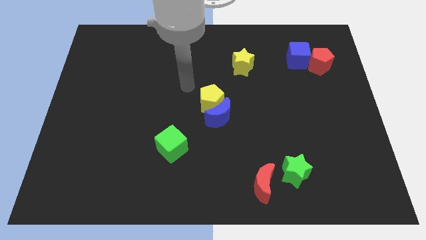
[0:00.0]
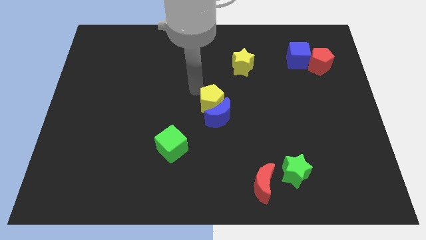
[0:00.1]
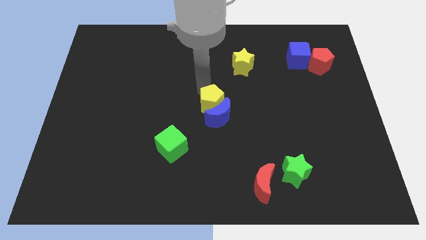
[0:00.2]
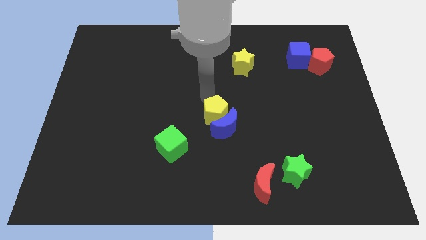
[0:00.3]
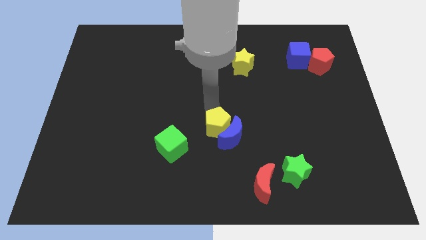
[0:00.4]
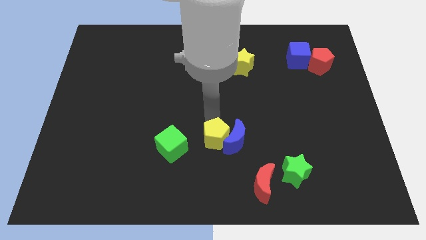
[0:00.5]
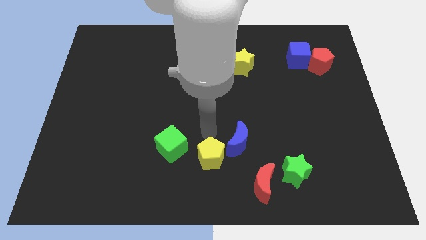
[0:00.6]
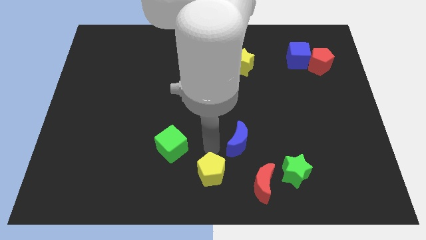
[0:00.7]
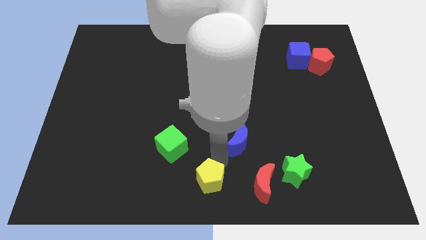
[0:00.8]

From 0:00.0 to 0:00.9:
separate the blue moon from the yellow pentagon

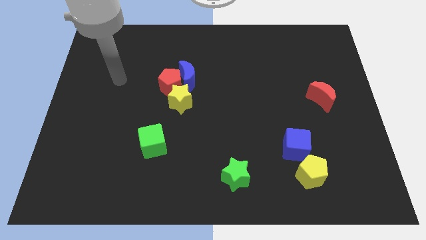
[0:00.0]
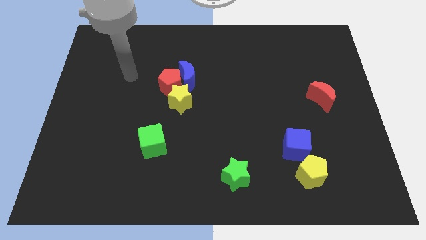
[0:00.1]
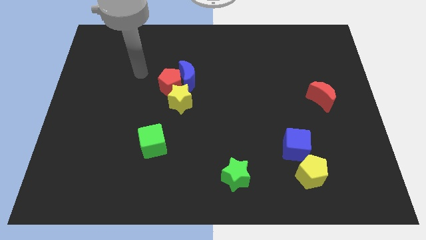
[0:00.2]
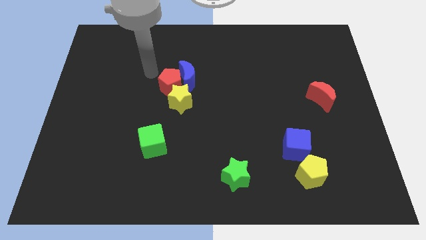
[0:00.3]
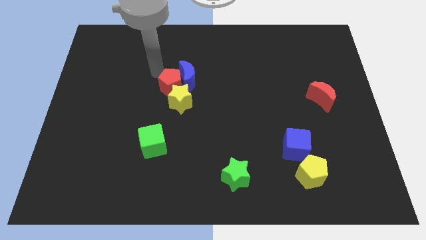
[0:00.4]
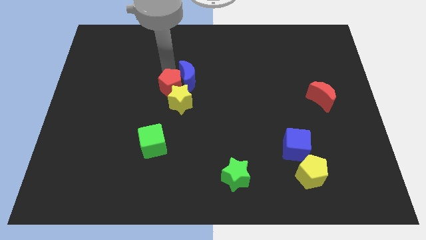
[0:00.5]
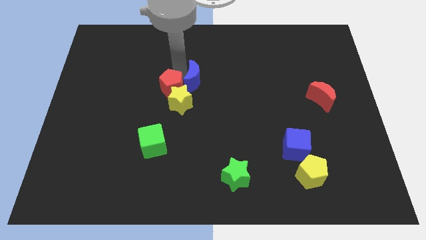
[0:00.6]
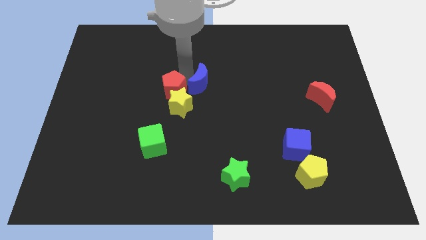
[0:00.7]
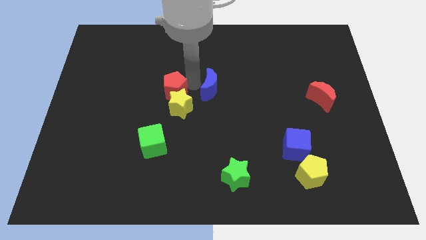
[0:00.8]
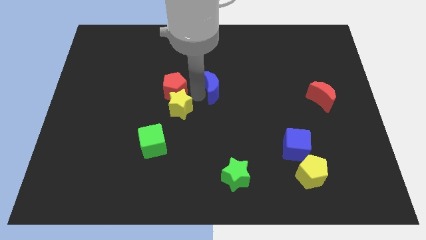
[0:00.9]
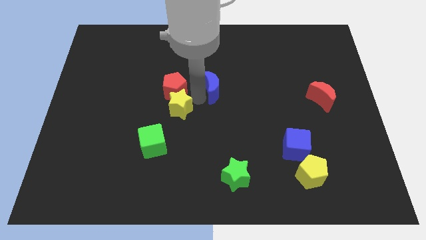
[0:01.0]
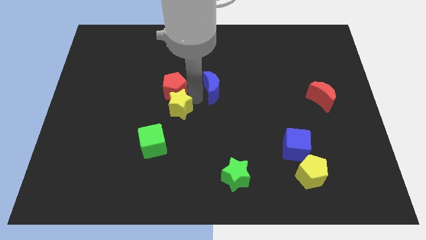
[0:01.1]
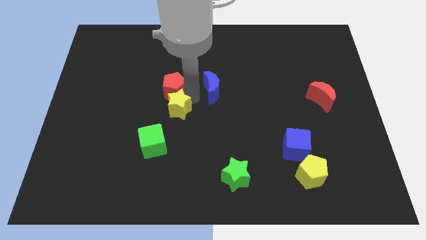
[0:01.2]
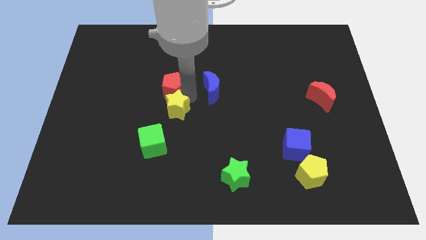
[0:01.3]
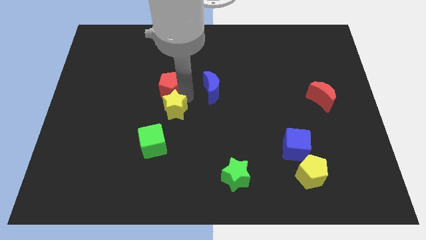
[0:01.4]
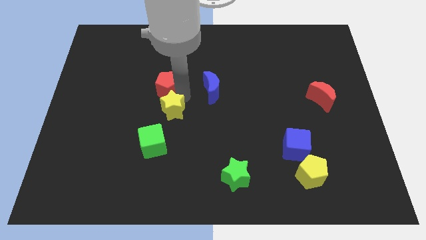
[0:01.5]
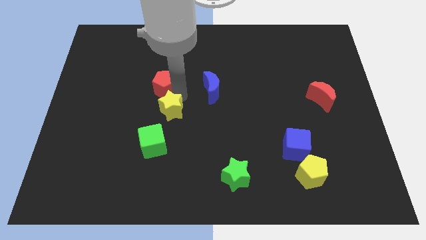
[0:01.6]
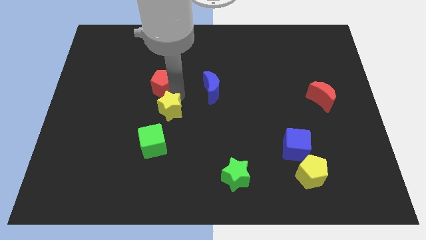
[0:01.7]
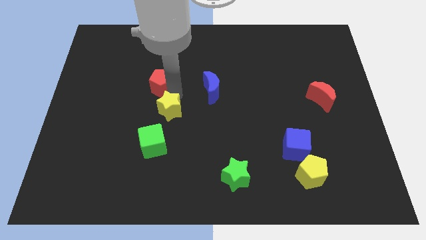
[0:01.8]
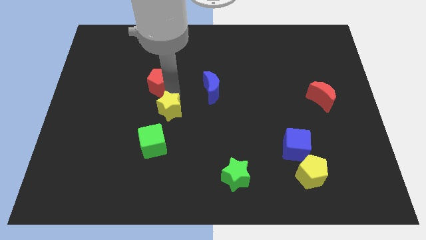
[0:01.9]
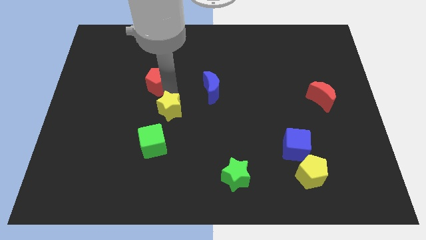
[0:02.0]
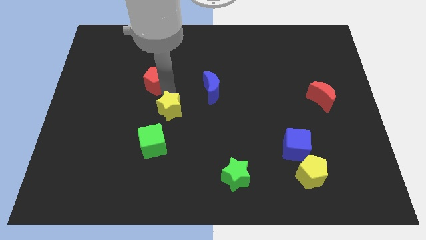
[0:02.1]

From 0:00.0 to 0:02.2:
move the red pentagon away from the blue moon and yellow star

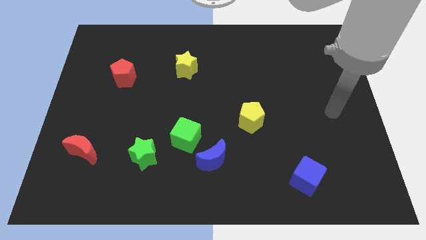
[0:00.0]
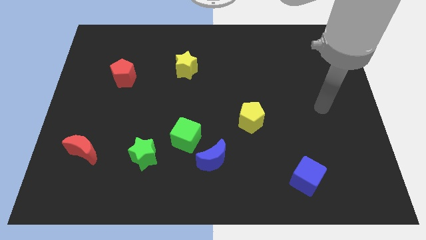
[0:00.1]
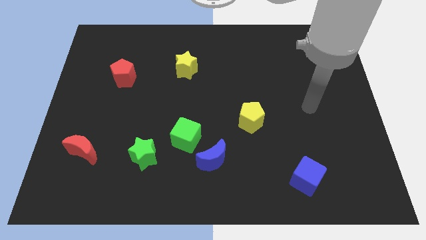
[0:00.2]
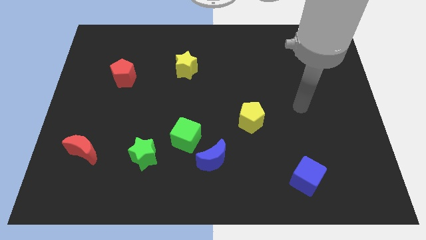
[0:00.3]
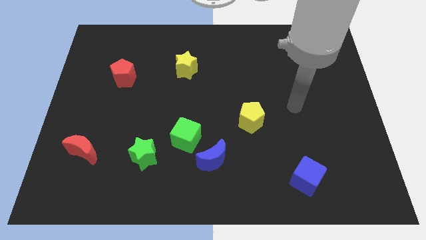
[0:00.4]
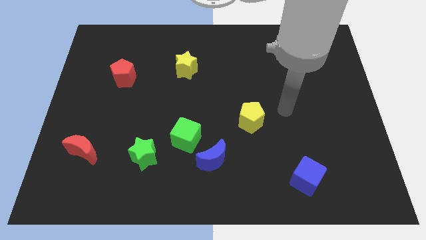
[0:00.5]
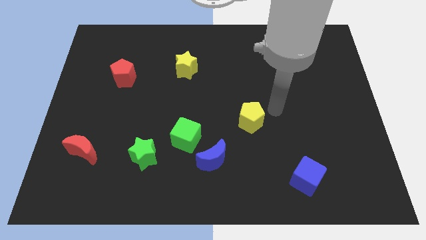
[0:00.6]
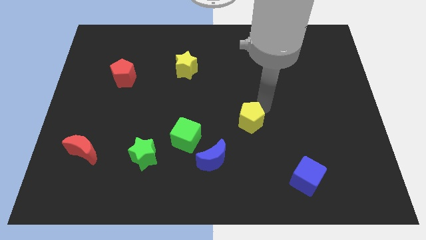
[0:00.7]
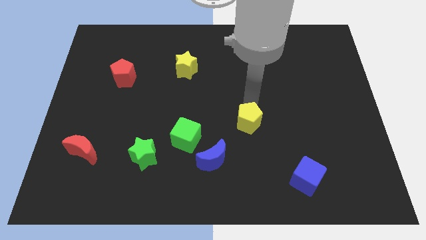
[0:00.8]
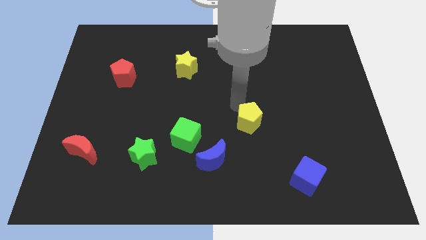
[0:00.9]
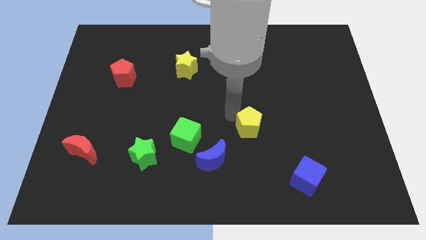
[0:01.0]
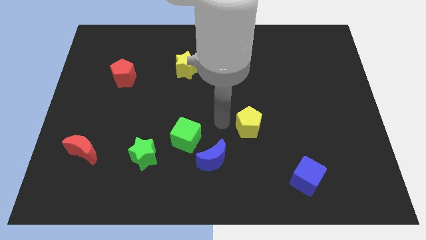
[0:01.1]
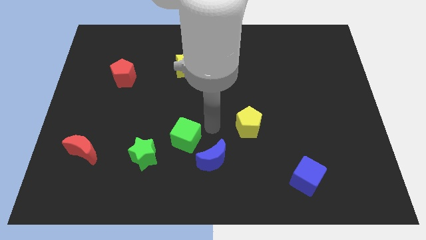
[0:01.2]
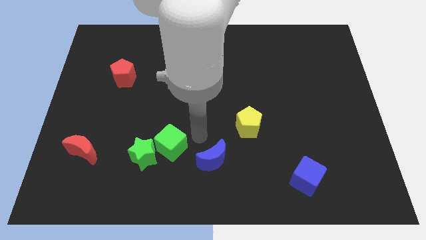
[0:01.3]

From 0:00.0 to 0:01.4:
separate the blue moon from the green cube

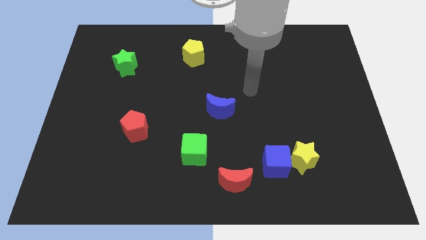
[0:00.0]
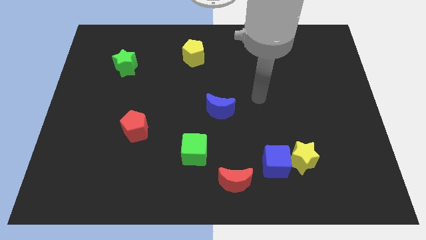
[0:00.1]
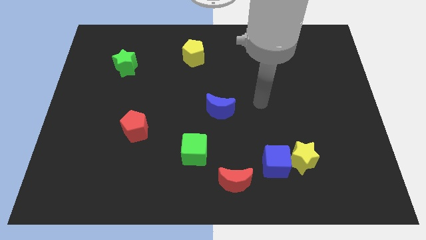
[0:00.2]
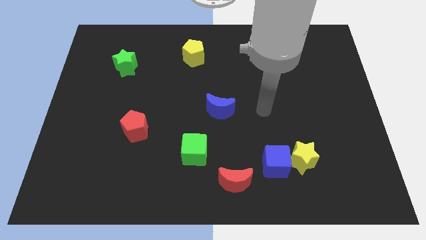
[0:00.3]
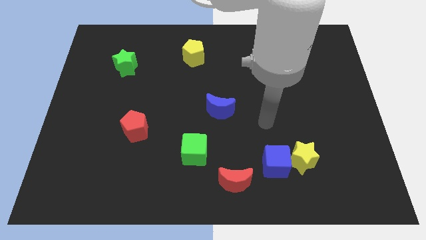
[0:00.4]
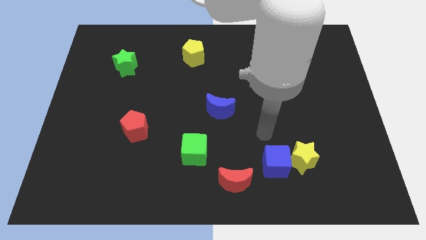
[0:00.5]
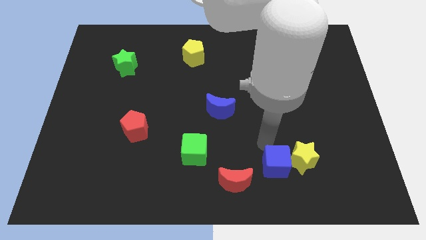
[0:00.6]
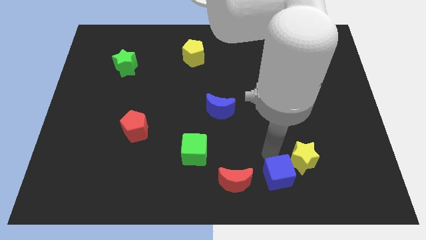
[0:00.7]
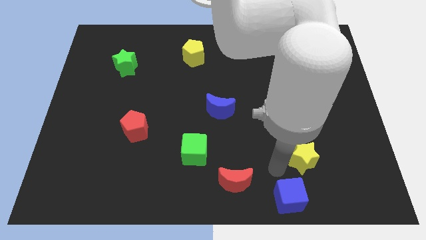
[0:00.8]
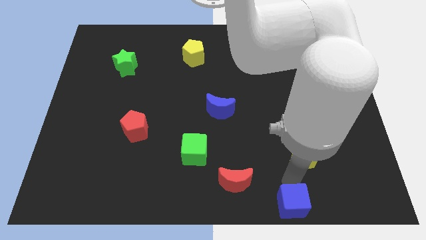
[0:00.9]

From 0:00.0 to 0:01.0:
move the yellow star away from the blue cube

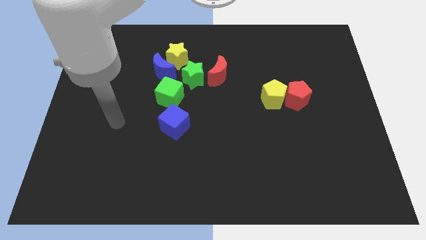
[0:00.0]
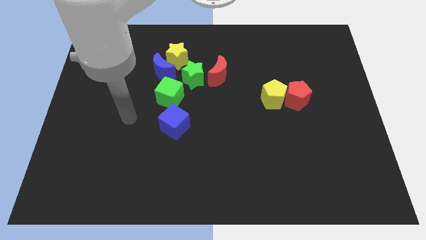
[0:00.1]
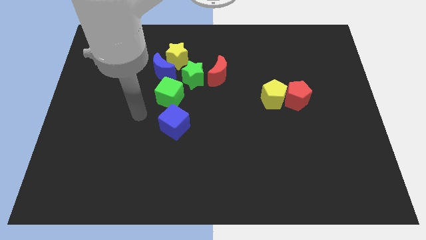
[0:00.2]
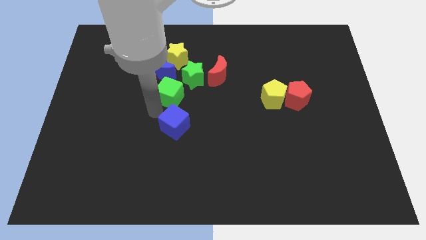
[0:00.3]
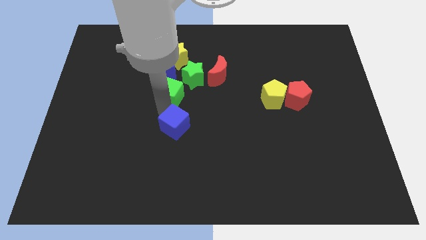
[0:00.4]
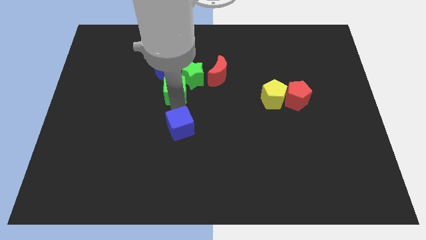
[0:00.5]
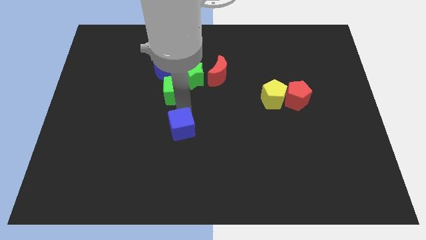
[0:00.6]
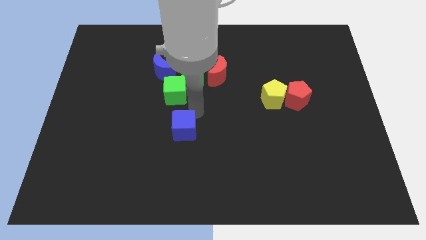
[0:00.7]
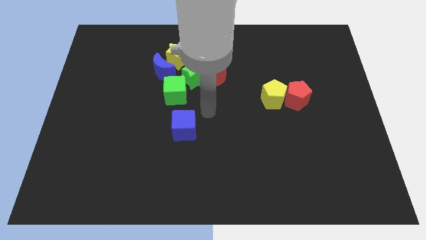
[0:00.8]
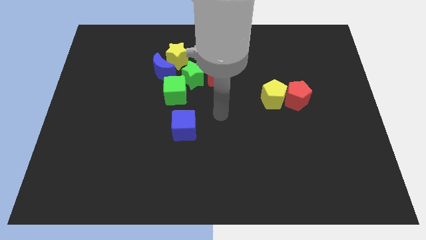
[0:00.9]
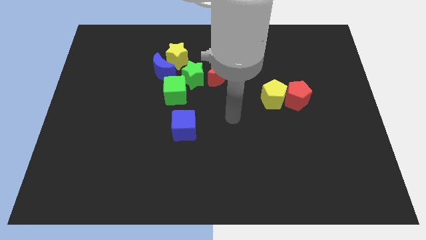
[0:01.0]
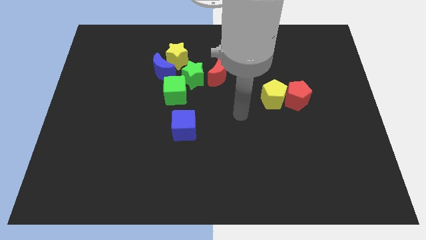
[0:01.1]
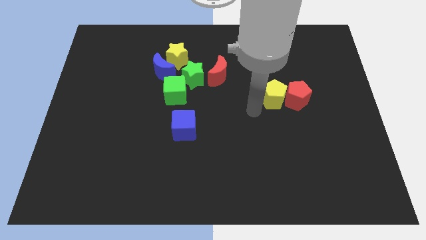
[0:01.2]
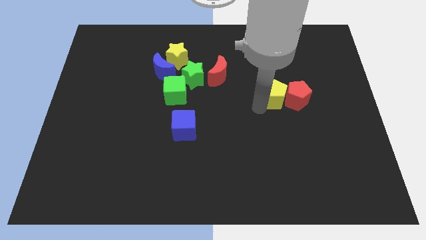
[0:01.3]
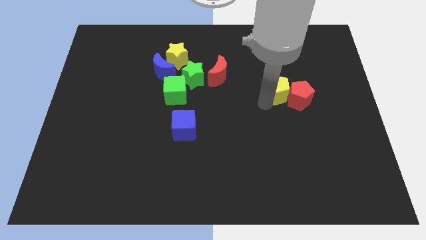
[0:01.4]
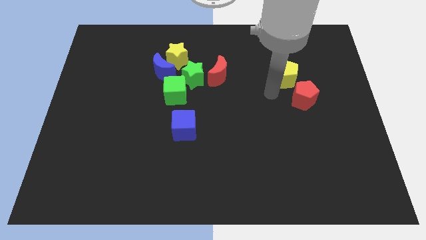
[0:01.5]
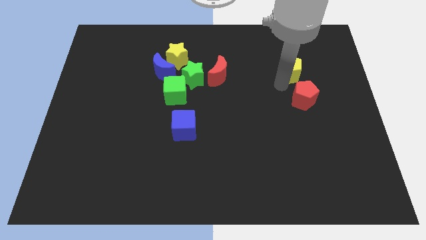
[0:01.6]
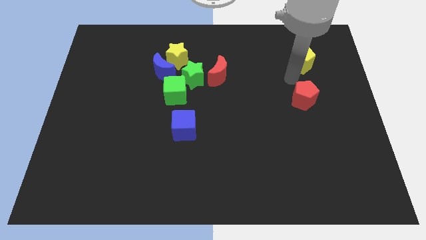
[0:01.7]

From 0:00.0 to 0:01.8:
move the red pentagon away from the yellow pentagon

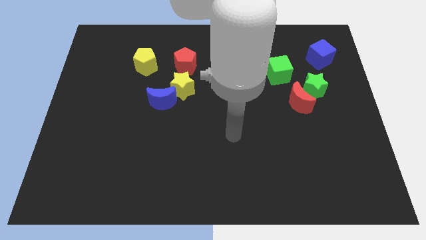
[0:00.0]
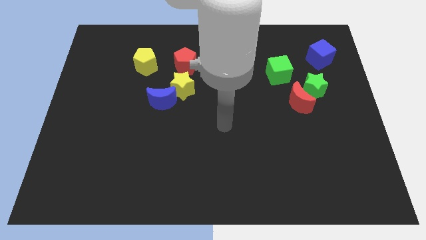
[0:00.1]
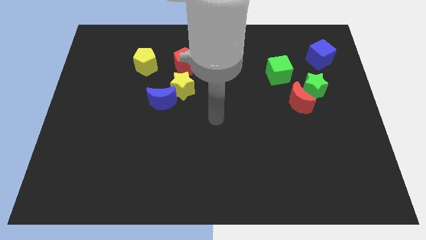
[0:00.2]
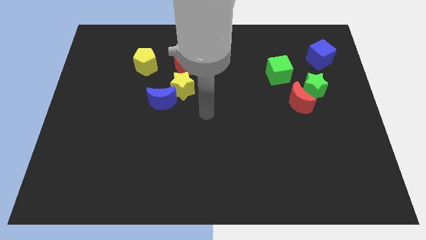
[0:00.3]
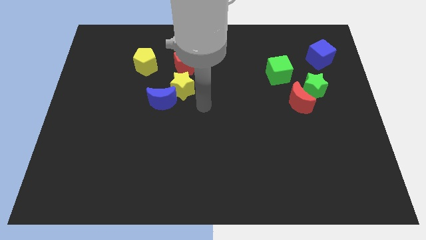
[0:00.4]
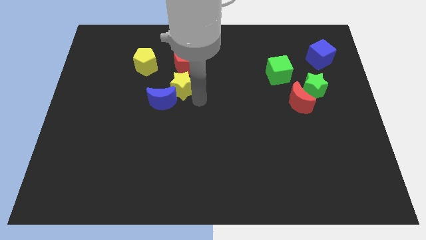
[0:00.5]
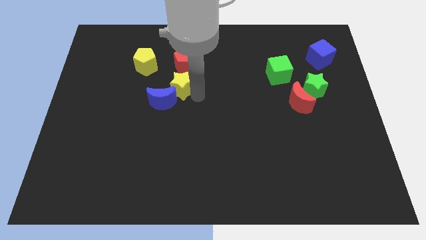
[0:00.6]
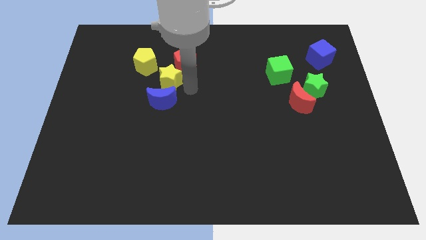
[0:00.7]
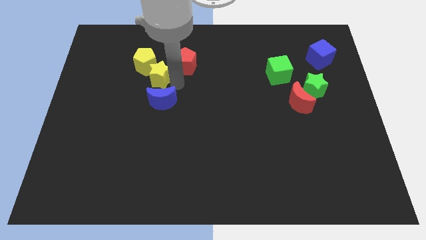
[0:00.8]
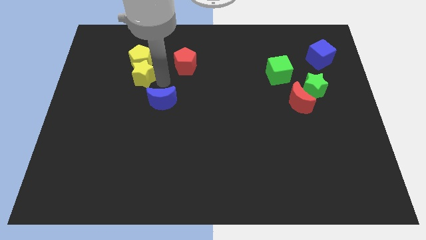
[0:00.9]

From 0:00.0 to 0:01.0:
separate the blue moon from the yellow star

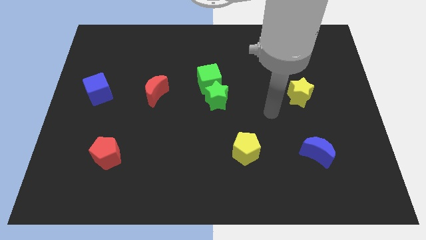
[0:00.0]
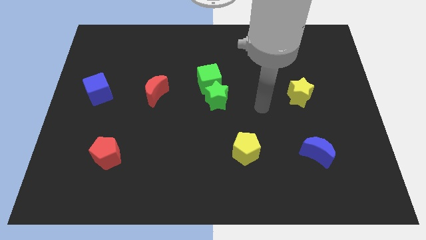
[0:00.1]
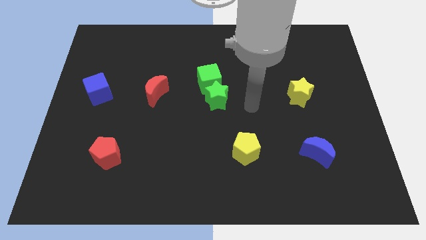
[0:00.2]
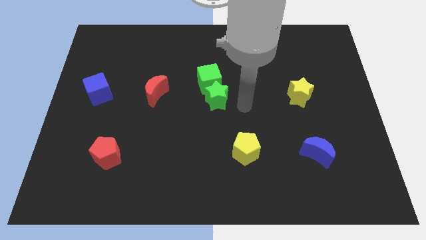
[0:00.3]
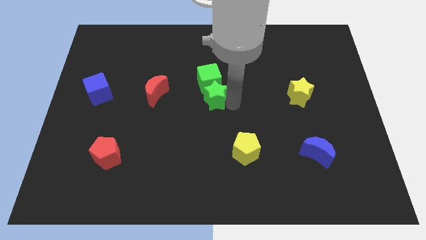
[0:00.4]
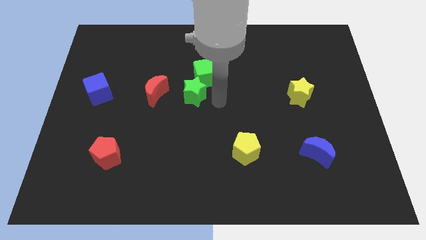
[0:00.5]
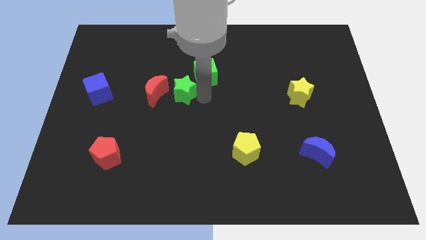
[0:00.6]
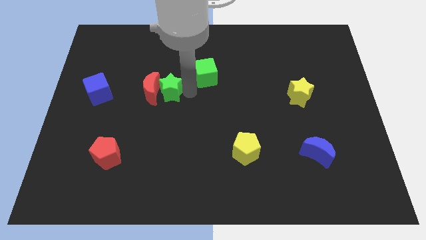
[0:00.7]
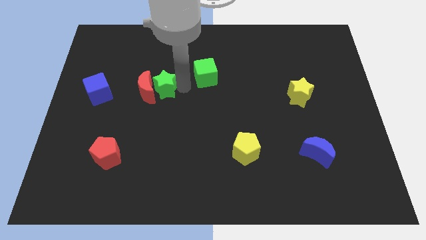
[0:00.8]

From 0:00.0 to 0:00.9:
separate the green cube from the green star

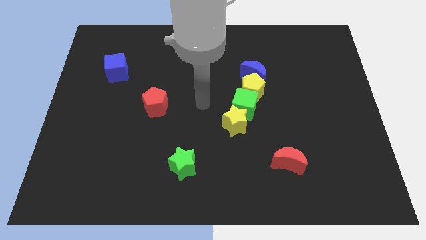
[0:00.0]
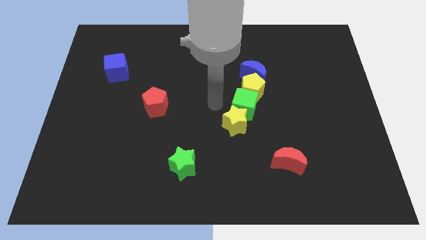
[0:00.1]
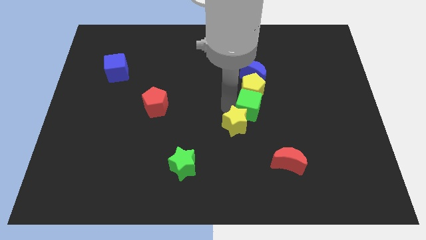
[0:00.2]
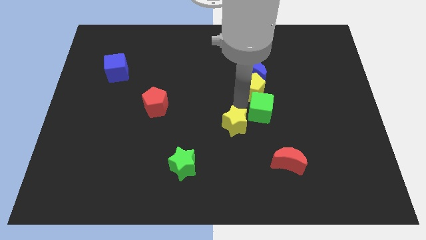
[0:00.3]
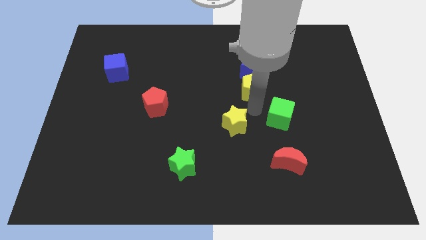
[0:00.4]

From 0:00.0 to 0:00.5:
separate the yellow star from the green cube
